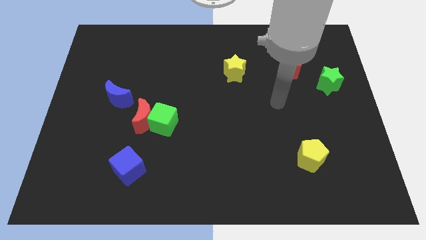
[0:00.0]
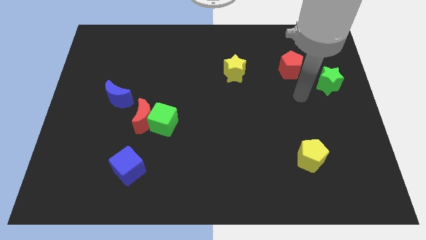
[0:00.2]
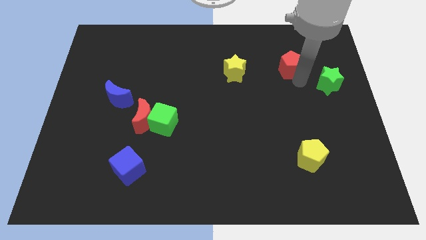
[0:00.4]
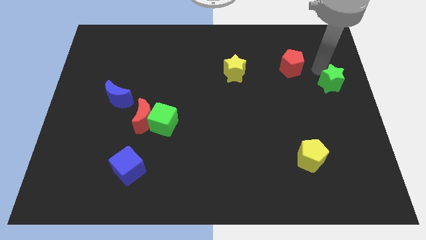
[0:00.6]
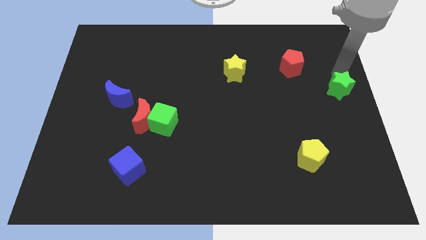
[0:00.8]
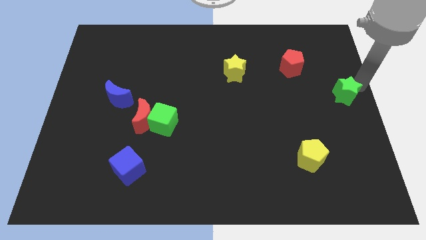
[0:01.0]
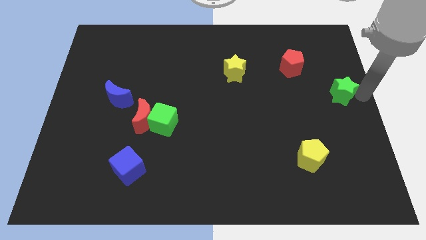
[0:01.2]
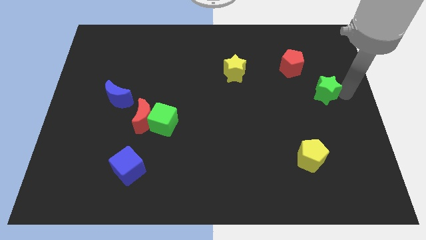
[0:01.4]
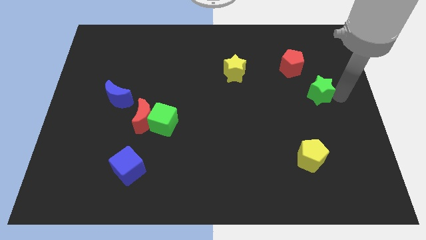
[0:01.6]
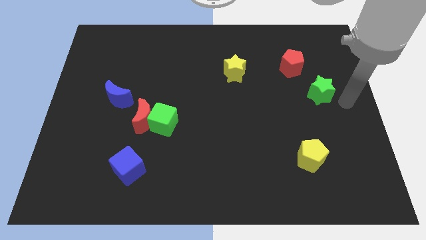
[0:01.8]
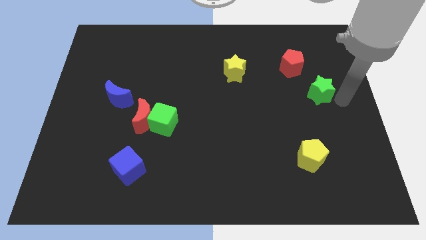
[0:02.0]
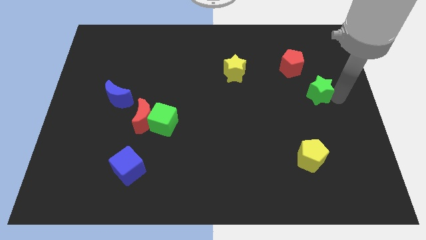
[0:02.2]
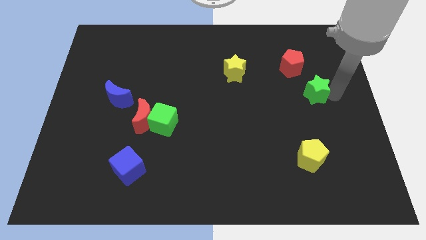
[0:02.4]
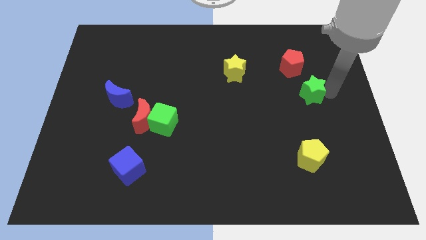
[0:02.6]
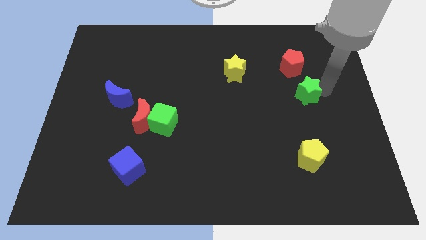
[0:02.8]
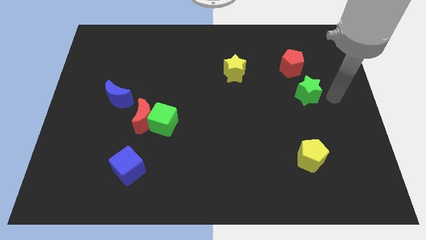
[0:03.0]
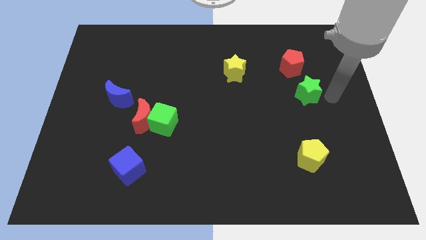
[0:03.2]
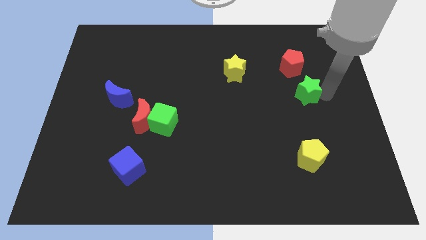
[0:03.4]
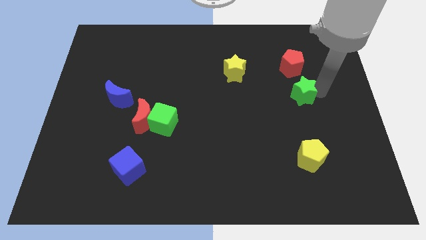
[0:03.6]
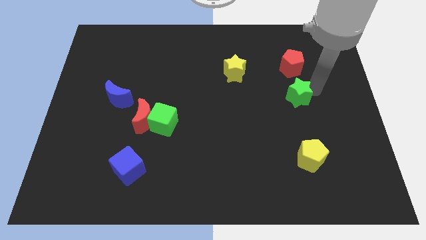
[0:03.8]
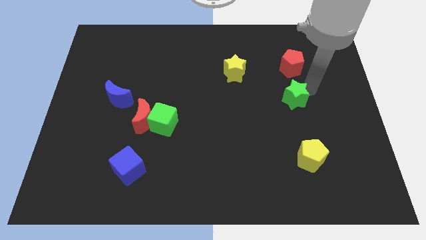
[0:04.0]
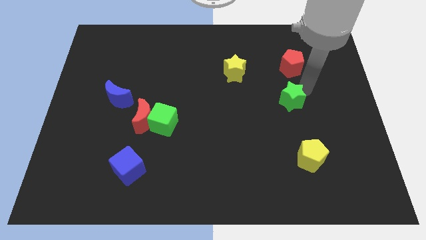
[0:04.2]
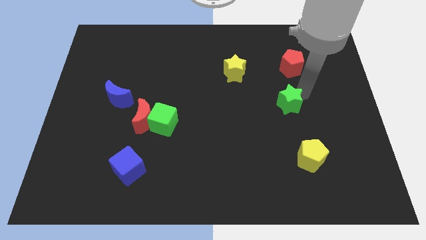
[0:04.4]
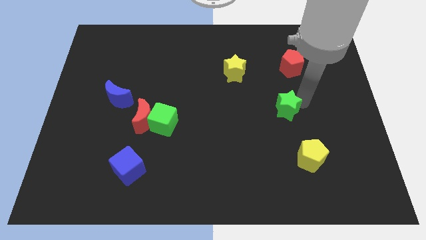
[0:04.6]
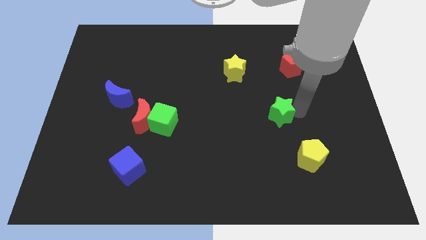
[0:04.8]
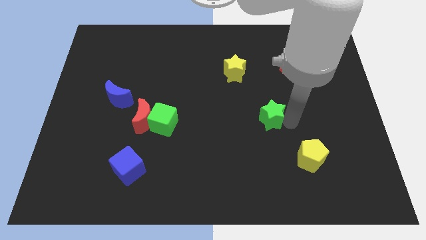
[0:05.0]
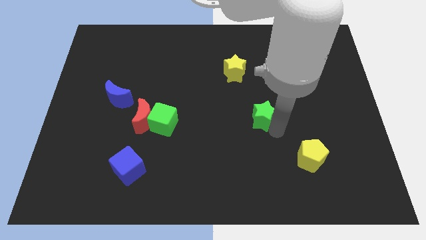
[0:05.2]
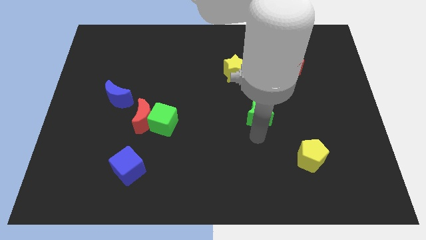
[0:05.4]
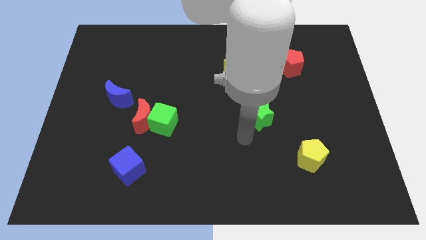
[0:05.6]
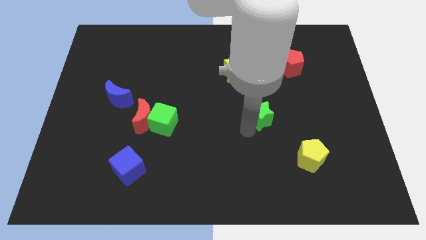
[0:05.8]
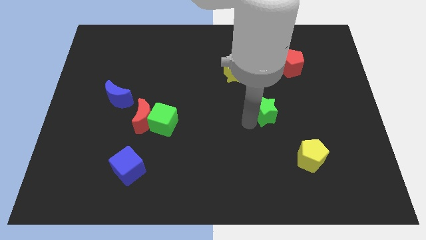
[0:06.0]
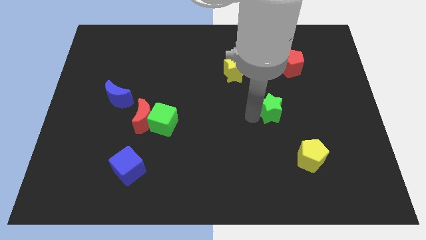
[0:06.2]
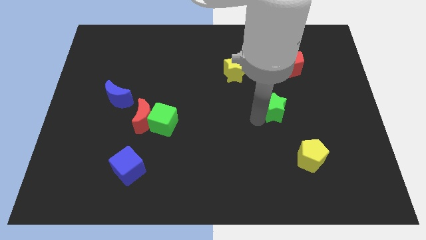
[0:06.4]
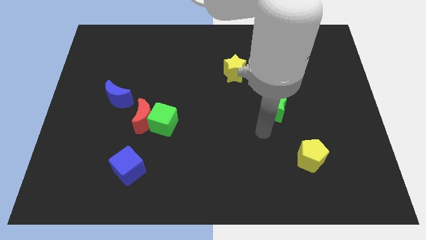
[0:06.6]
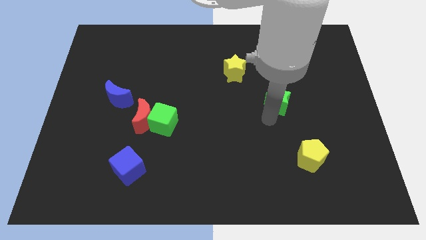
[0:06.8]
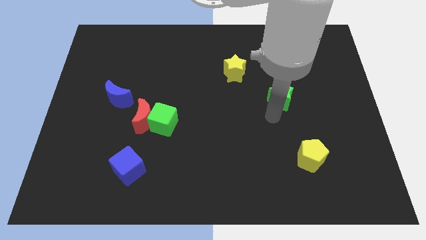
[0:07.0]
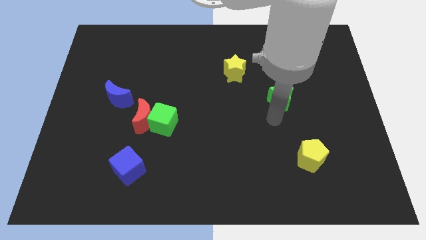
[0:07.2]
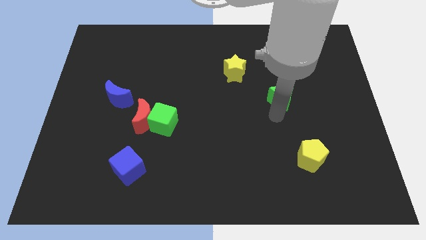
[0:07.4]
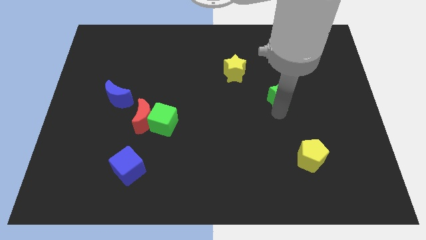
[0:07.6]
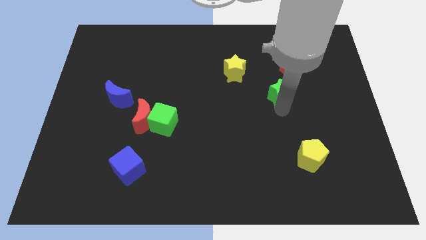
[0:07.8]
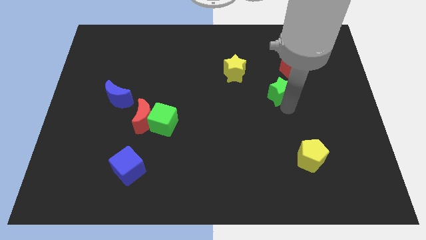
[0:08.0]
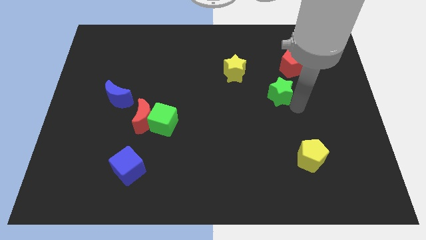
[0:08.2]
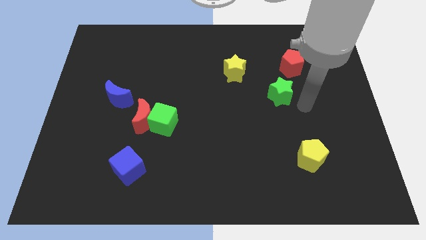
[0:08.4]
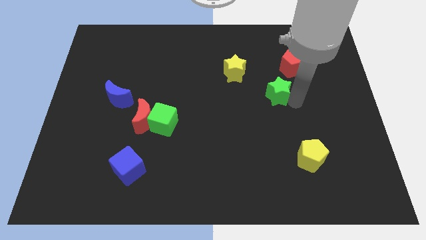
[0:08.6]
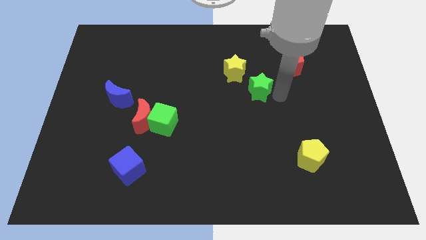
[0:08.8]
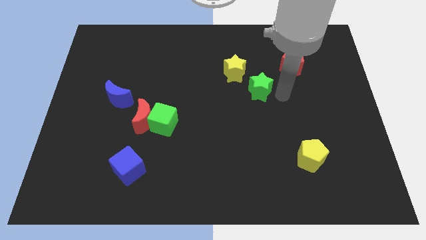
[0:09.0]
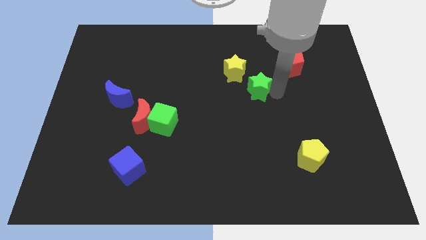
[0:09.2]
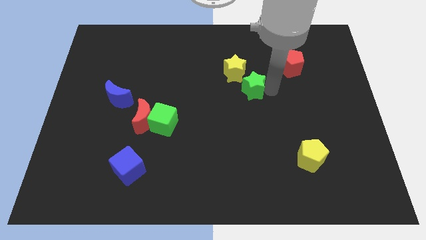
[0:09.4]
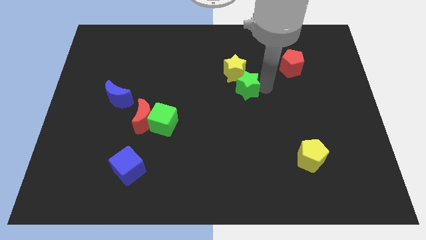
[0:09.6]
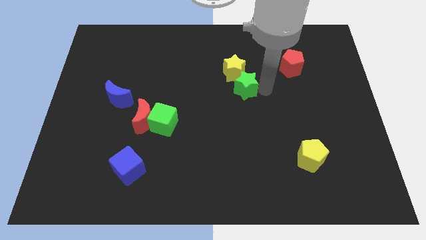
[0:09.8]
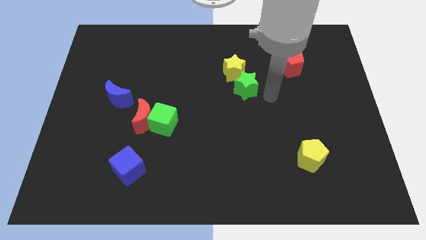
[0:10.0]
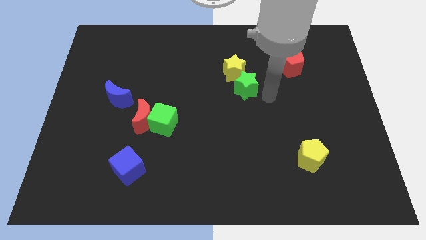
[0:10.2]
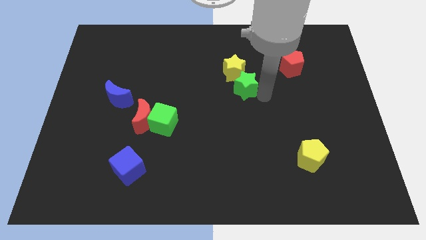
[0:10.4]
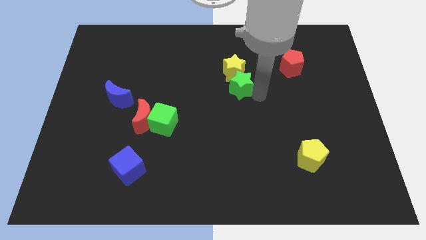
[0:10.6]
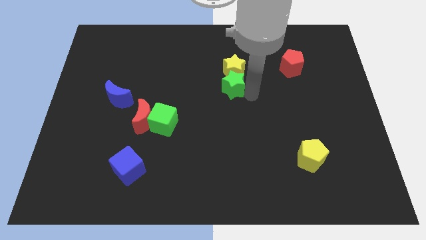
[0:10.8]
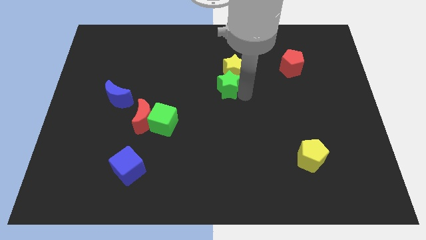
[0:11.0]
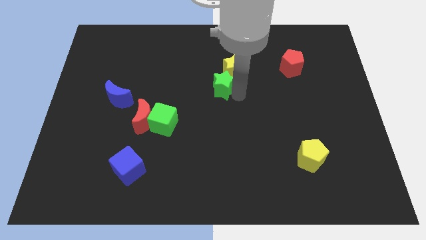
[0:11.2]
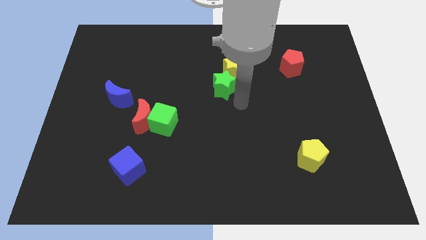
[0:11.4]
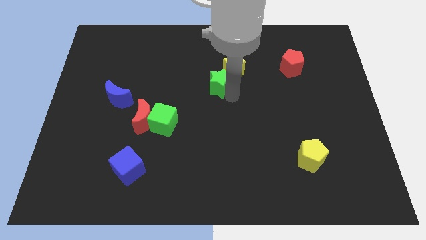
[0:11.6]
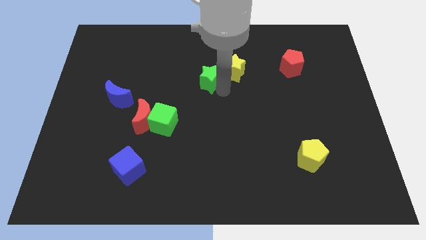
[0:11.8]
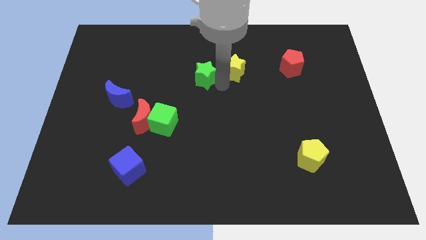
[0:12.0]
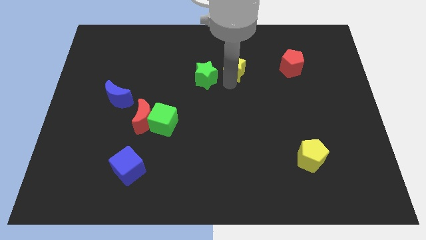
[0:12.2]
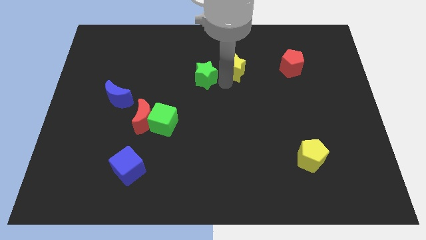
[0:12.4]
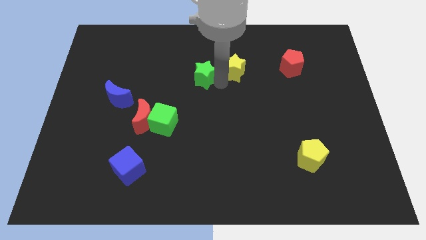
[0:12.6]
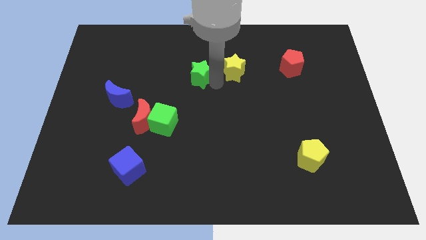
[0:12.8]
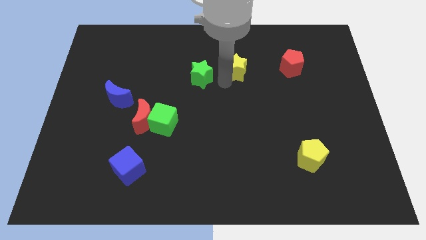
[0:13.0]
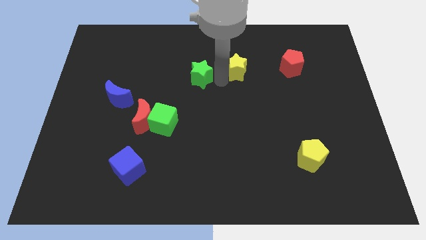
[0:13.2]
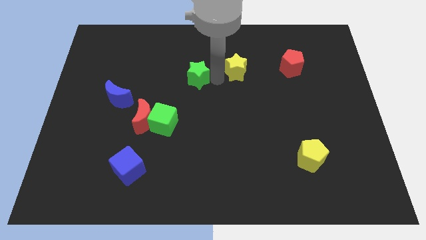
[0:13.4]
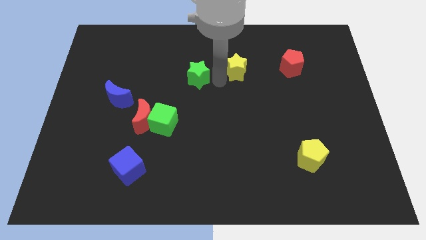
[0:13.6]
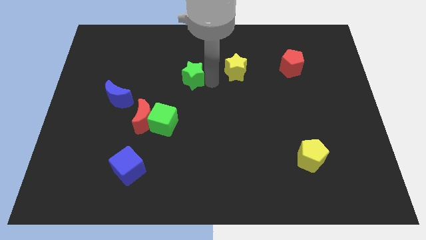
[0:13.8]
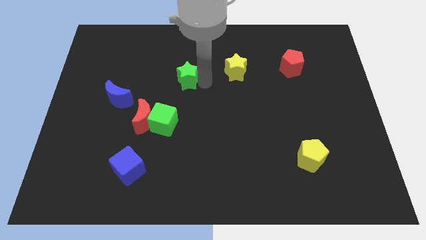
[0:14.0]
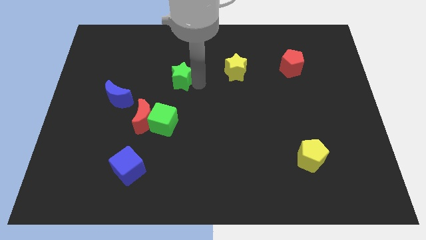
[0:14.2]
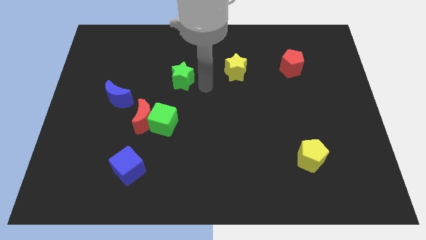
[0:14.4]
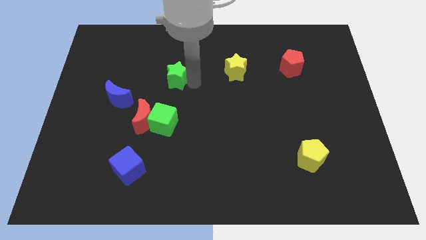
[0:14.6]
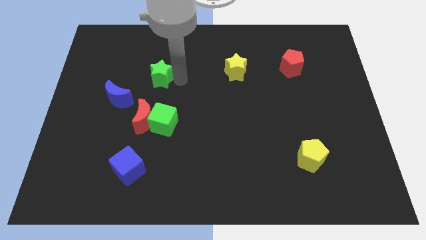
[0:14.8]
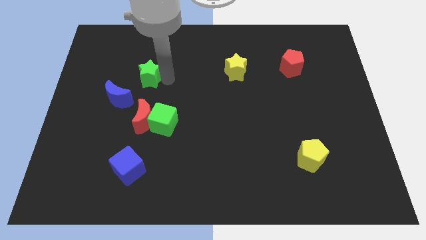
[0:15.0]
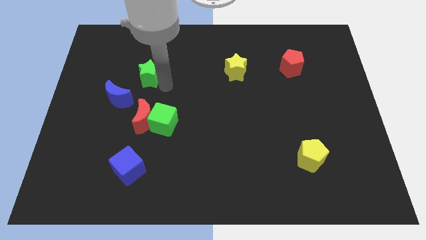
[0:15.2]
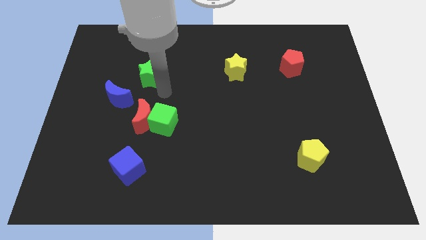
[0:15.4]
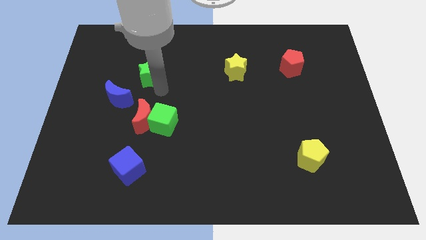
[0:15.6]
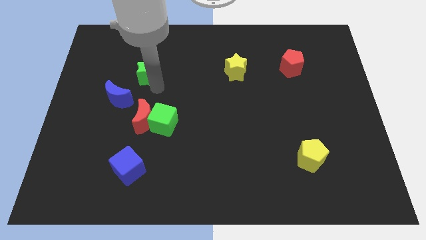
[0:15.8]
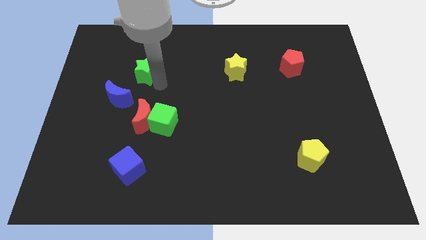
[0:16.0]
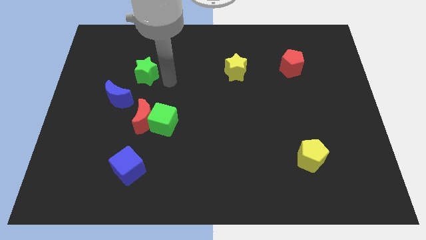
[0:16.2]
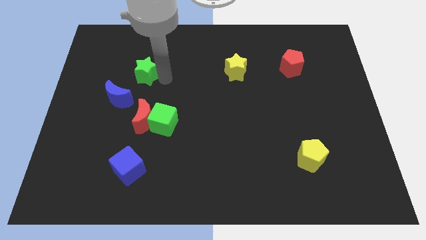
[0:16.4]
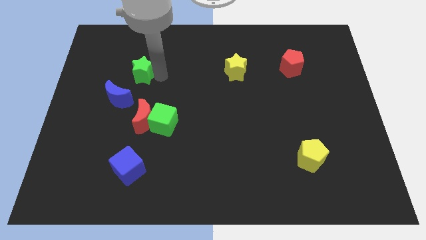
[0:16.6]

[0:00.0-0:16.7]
put the green star above the blue moon
